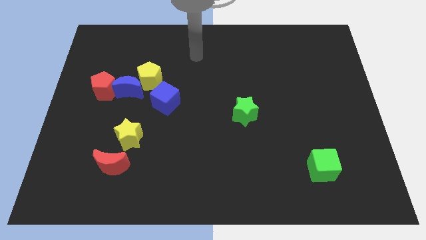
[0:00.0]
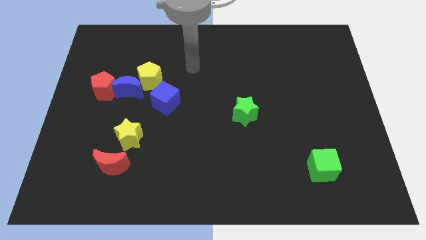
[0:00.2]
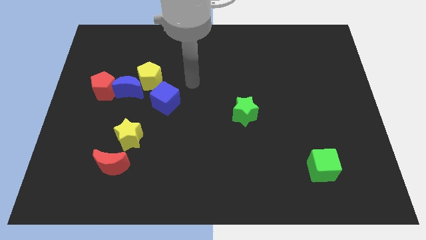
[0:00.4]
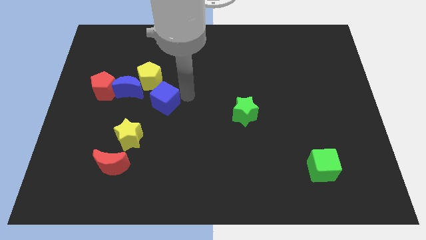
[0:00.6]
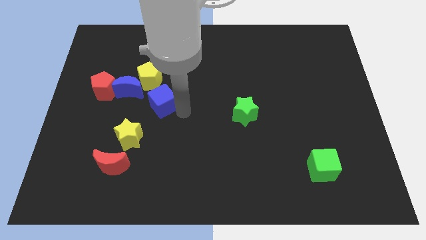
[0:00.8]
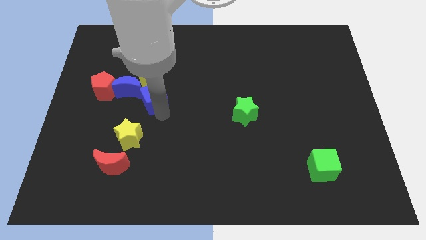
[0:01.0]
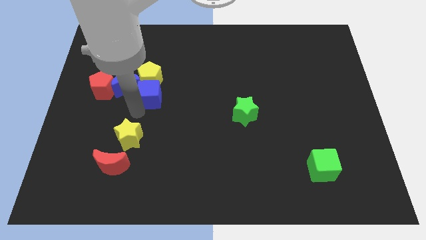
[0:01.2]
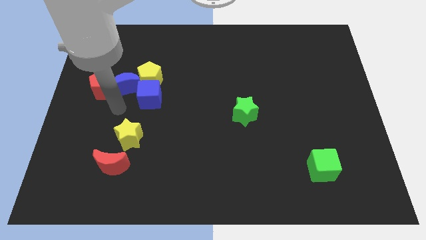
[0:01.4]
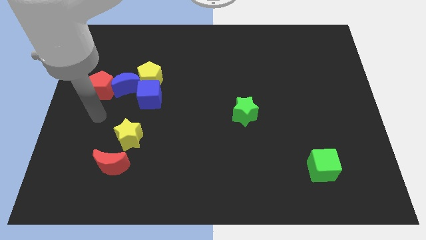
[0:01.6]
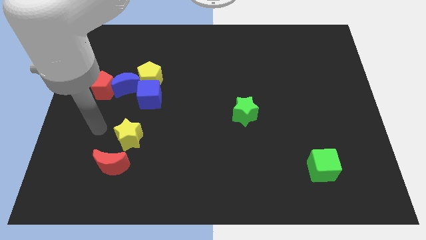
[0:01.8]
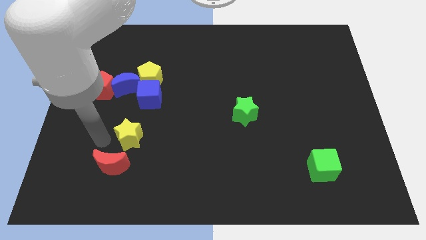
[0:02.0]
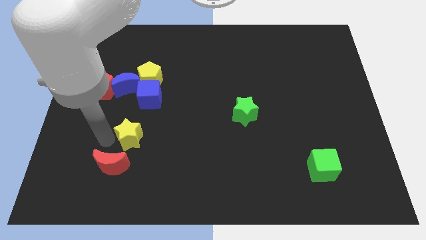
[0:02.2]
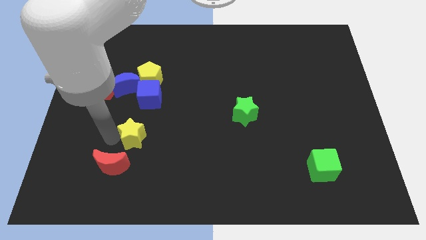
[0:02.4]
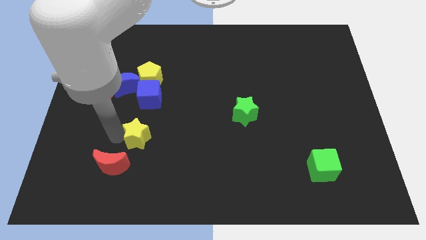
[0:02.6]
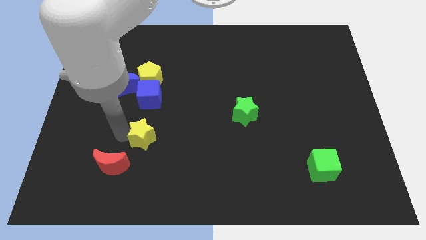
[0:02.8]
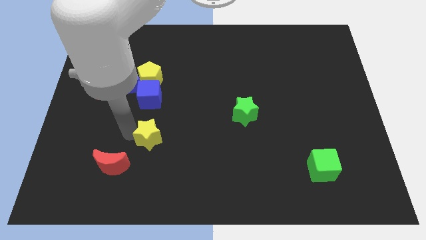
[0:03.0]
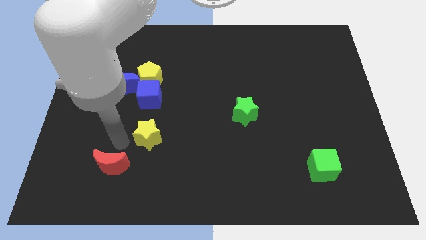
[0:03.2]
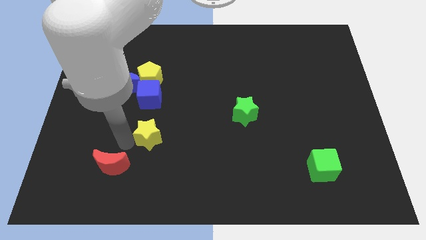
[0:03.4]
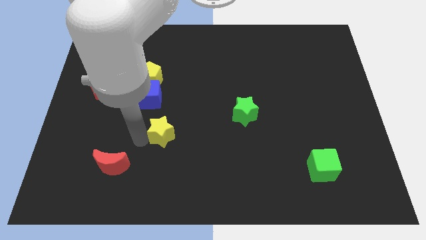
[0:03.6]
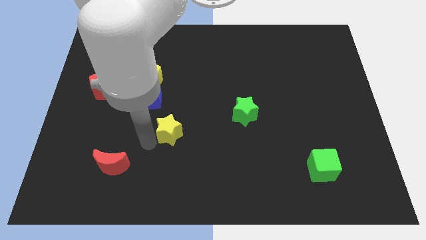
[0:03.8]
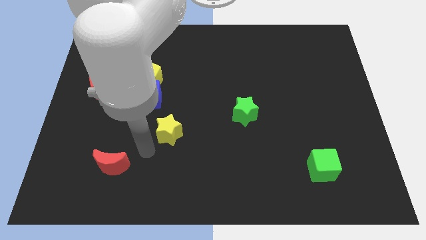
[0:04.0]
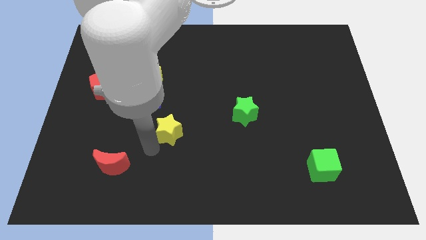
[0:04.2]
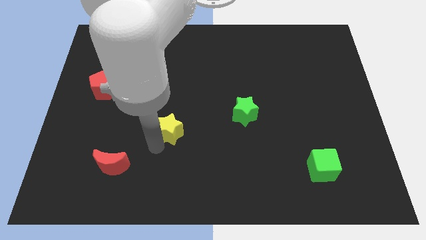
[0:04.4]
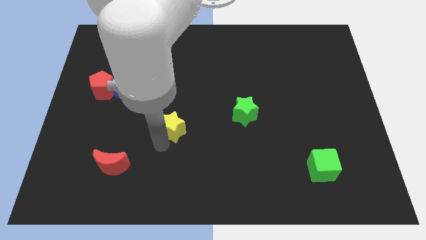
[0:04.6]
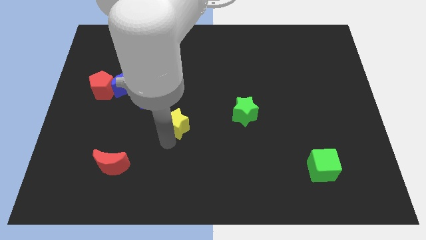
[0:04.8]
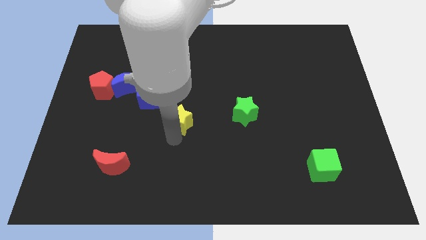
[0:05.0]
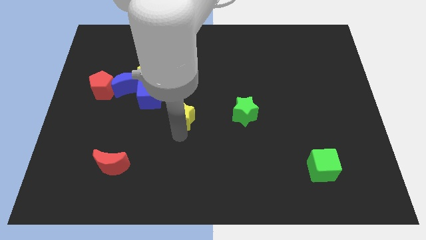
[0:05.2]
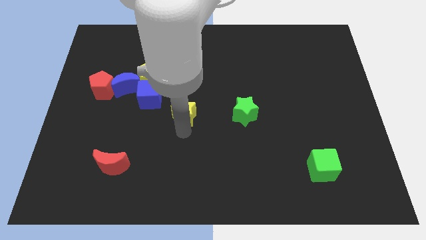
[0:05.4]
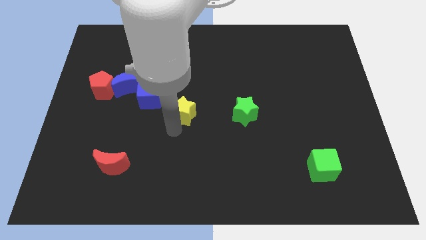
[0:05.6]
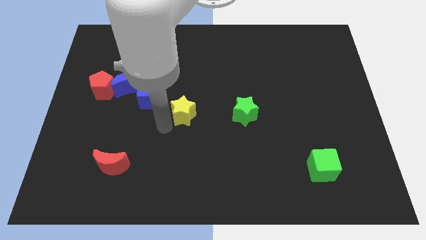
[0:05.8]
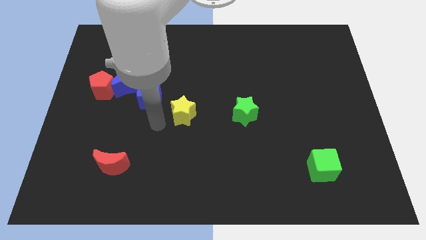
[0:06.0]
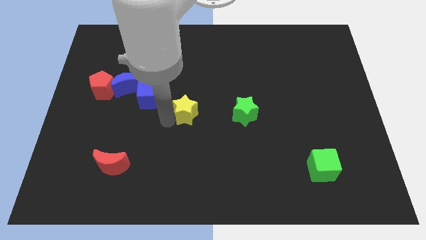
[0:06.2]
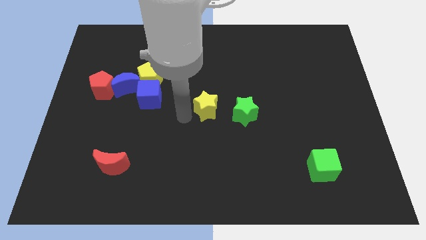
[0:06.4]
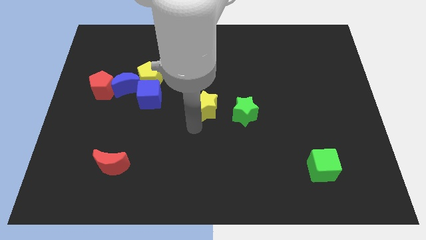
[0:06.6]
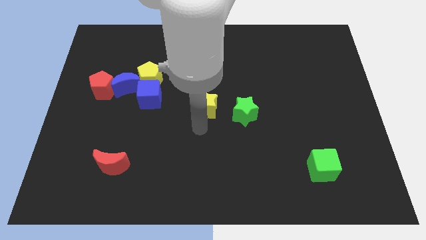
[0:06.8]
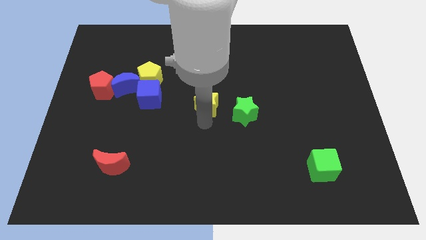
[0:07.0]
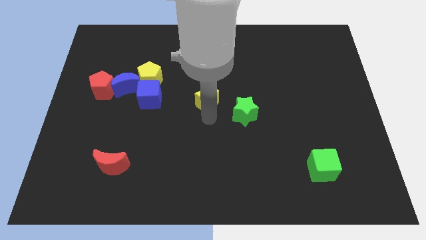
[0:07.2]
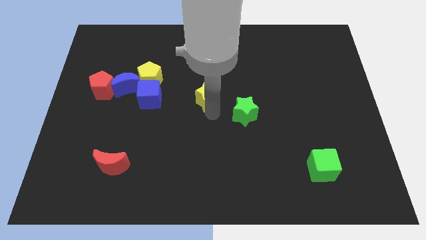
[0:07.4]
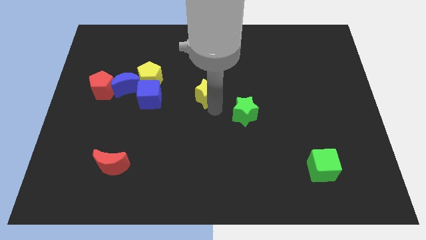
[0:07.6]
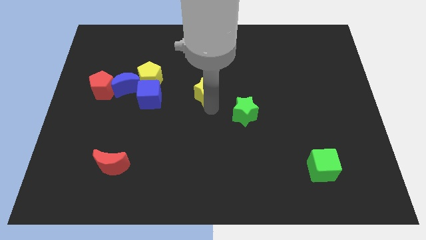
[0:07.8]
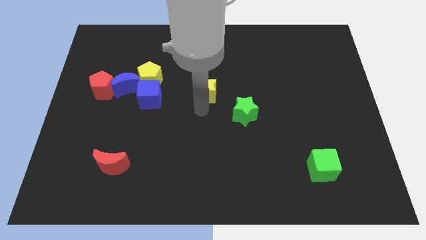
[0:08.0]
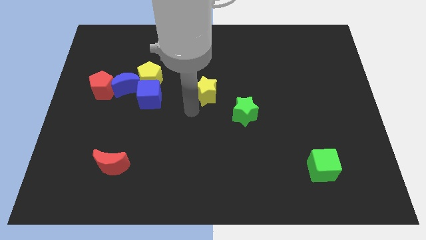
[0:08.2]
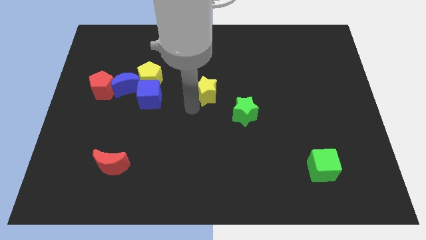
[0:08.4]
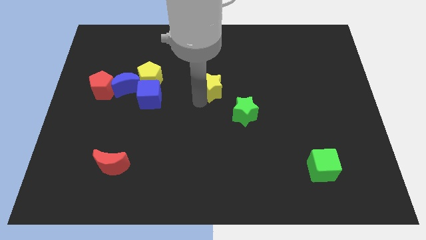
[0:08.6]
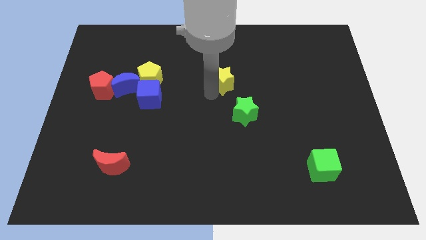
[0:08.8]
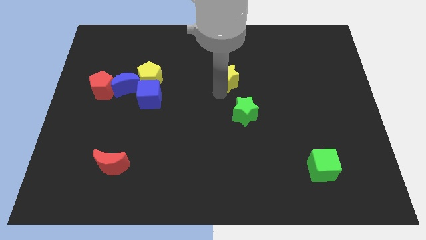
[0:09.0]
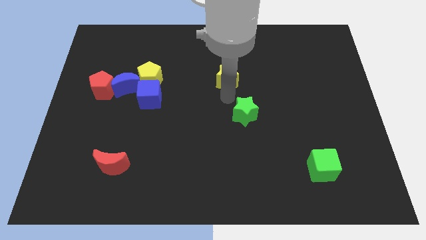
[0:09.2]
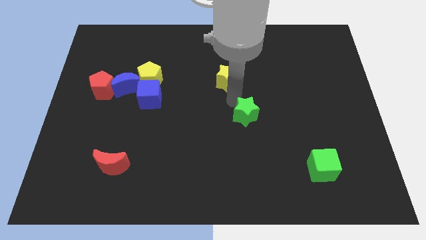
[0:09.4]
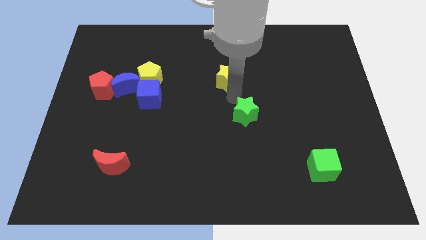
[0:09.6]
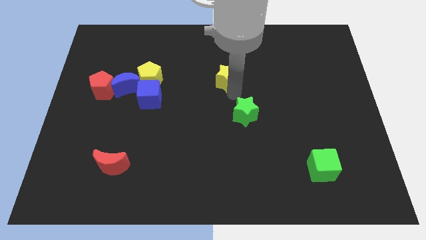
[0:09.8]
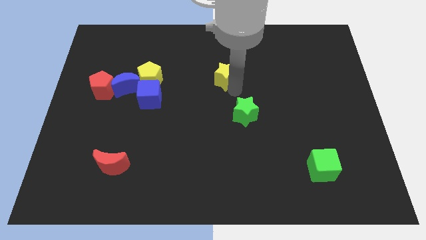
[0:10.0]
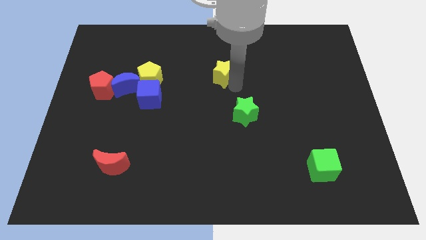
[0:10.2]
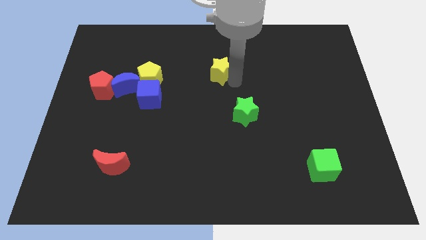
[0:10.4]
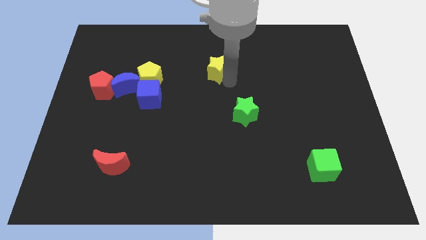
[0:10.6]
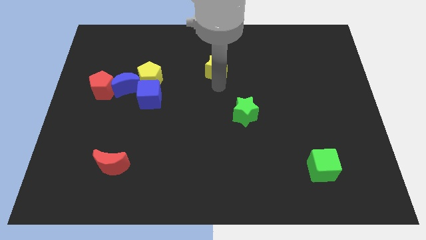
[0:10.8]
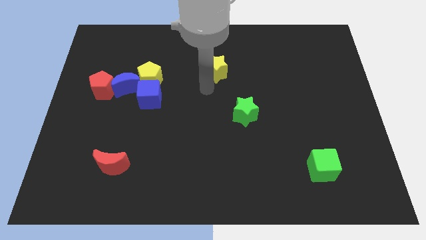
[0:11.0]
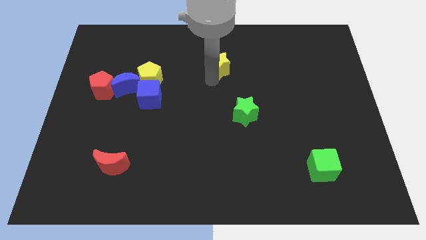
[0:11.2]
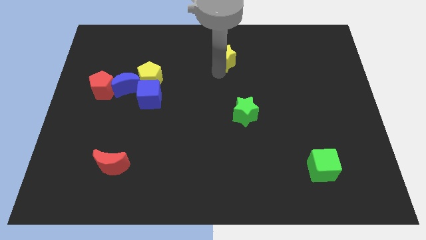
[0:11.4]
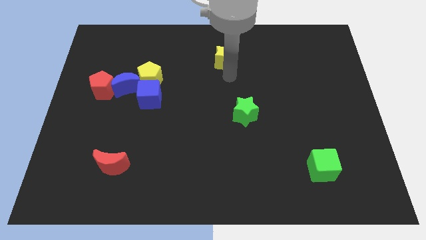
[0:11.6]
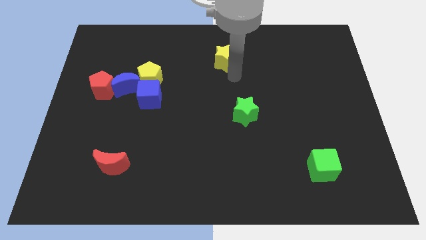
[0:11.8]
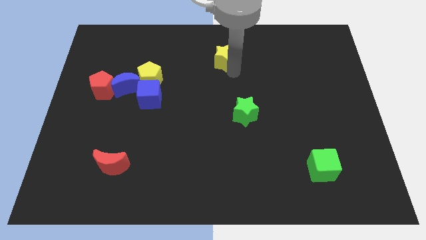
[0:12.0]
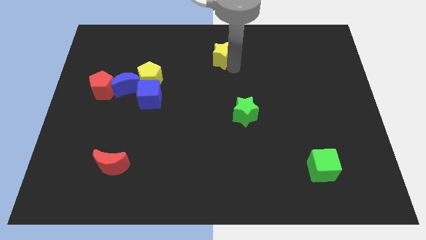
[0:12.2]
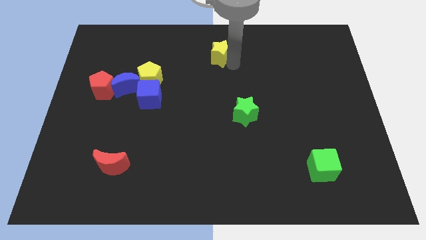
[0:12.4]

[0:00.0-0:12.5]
put the yellow star to the top
